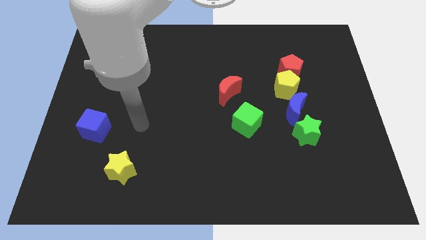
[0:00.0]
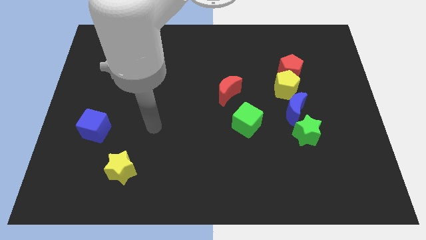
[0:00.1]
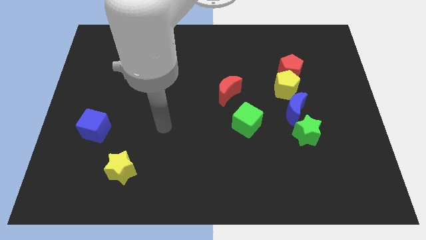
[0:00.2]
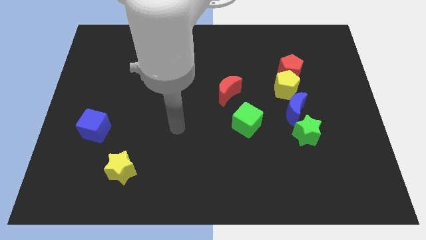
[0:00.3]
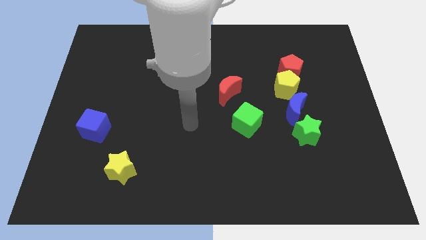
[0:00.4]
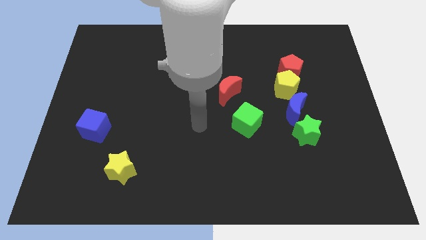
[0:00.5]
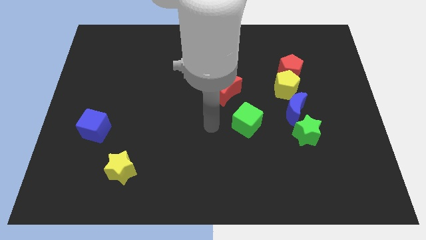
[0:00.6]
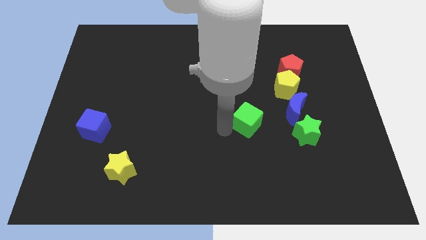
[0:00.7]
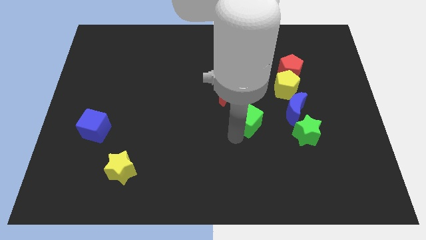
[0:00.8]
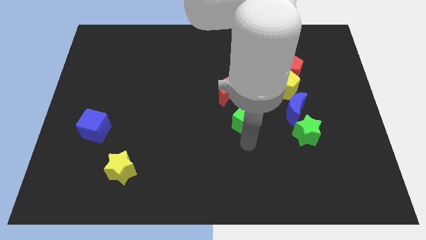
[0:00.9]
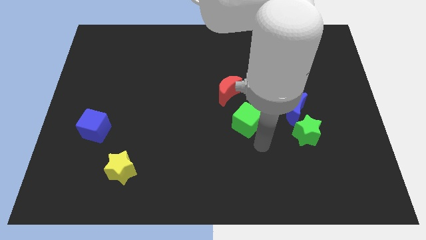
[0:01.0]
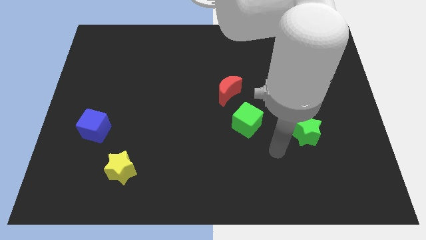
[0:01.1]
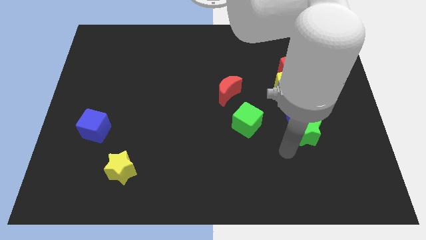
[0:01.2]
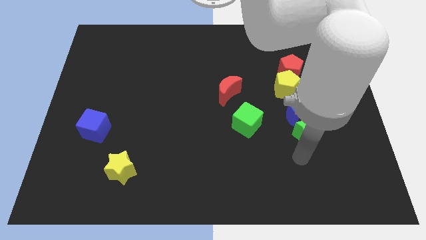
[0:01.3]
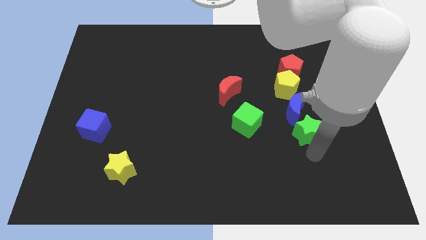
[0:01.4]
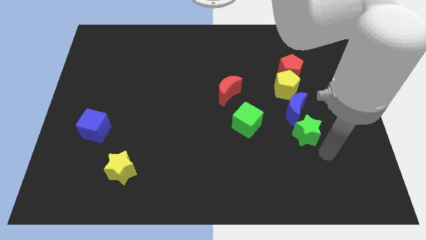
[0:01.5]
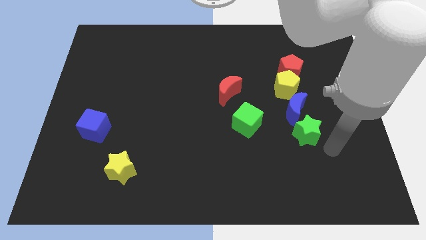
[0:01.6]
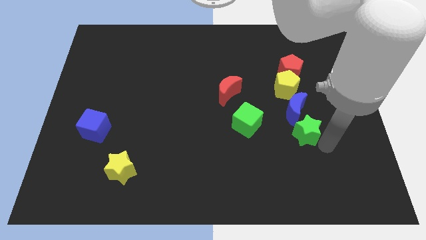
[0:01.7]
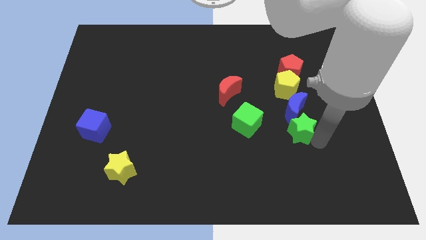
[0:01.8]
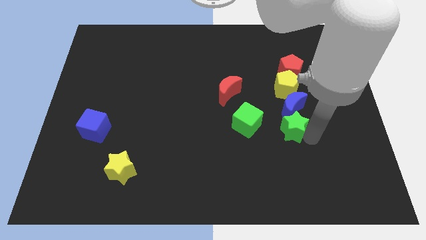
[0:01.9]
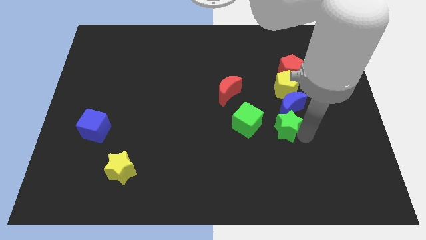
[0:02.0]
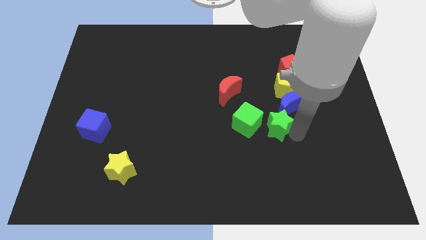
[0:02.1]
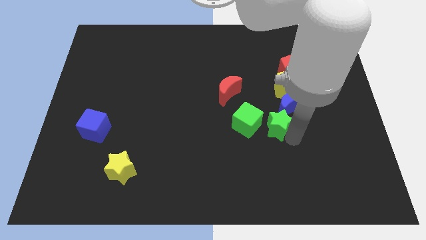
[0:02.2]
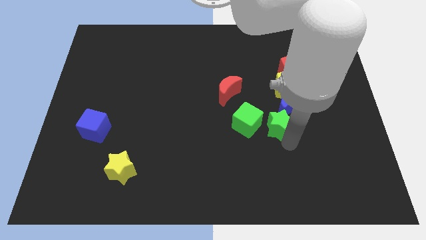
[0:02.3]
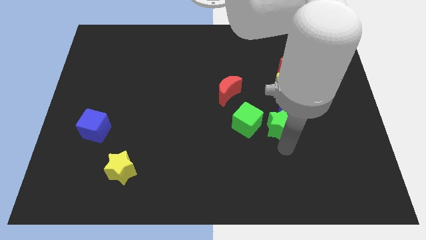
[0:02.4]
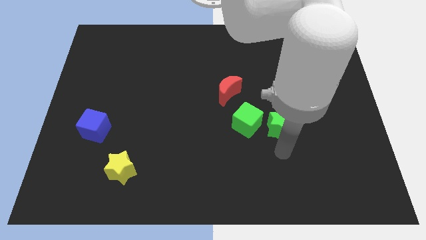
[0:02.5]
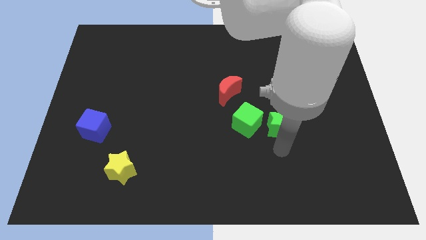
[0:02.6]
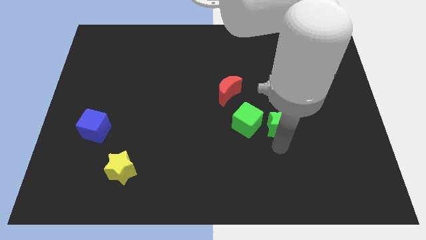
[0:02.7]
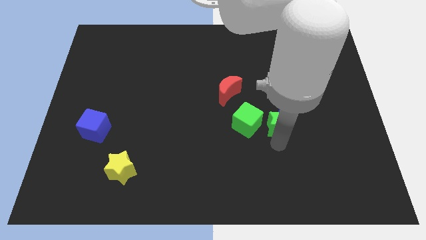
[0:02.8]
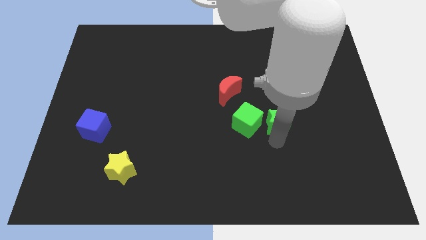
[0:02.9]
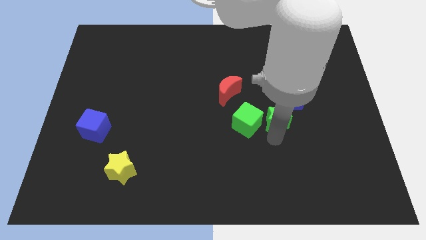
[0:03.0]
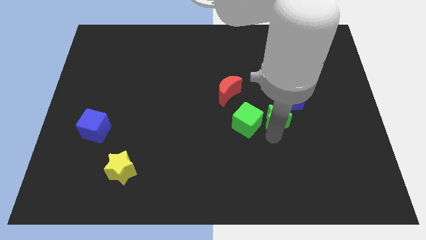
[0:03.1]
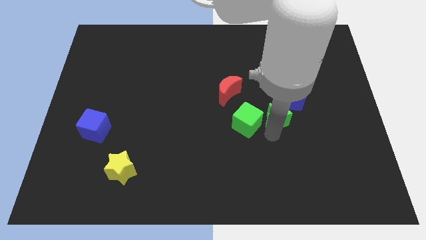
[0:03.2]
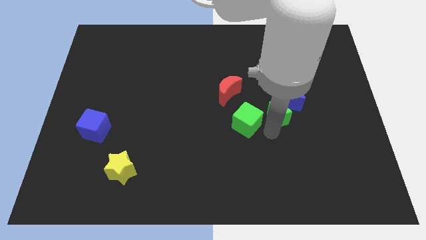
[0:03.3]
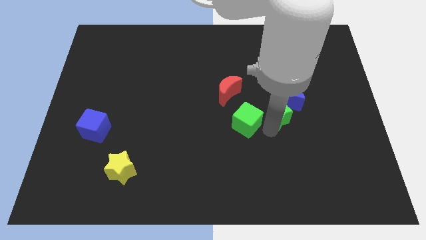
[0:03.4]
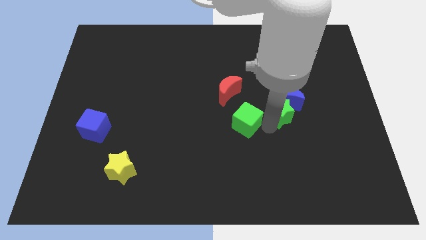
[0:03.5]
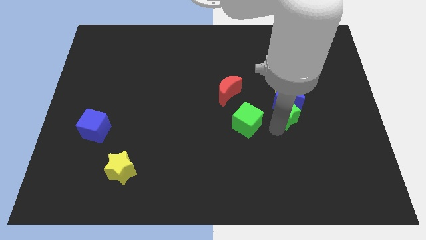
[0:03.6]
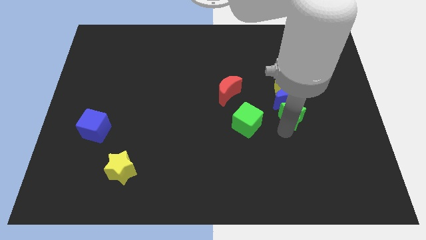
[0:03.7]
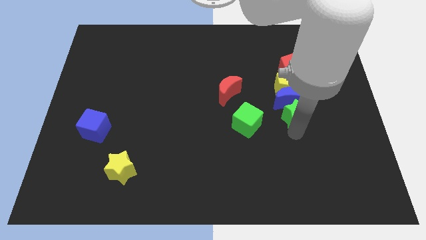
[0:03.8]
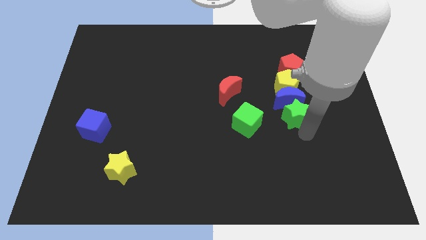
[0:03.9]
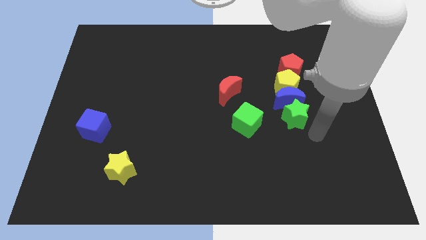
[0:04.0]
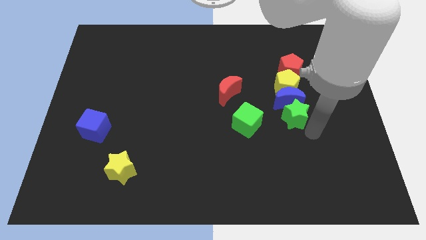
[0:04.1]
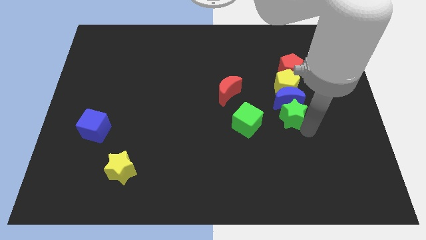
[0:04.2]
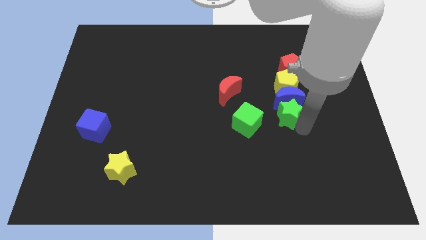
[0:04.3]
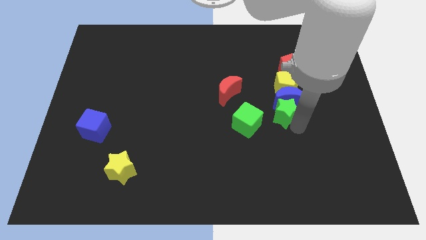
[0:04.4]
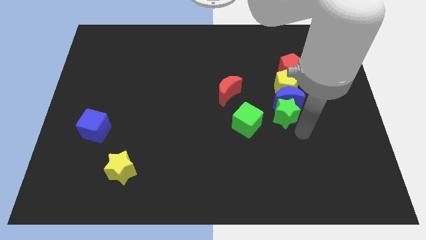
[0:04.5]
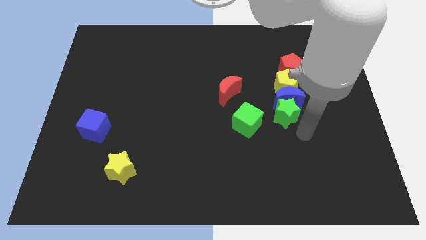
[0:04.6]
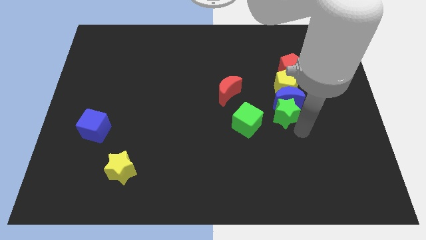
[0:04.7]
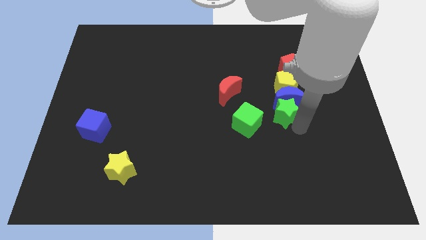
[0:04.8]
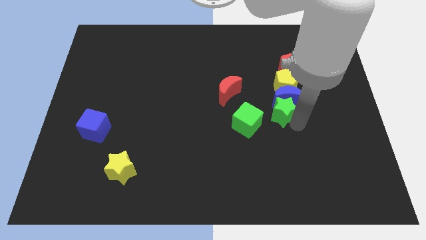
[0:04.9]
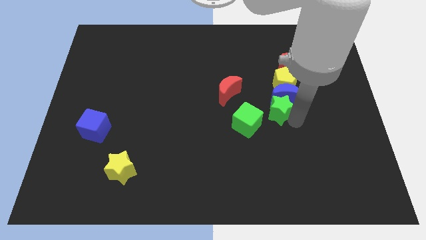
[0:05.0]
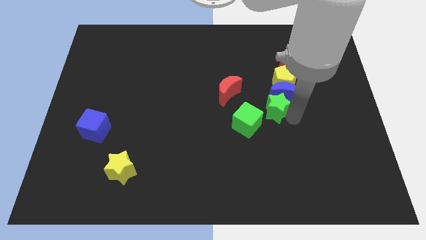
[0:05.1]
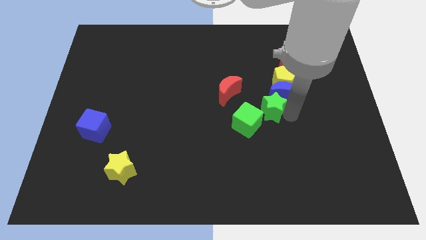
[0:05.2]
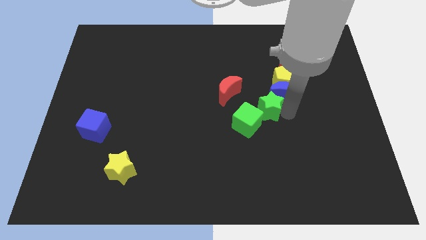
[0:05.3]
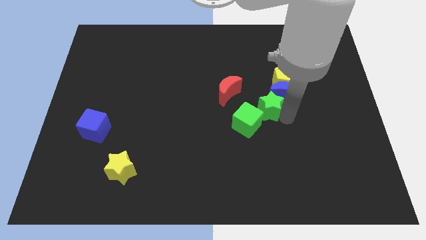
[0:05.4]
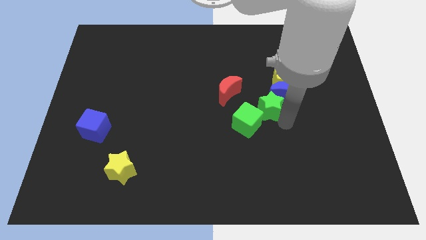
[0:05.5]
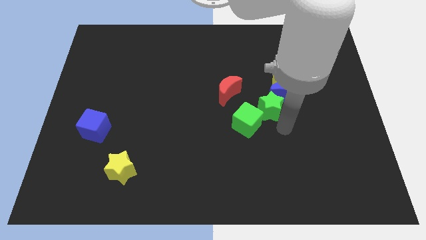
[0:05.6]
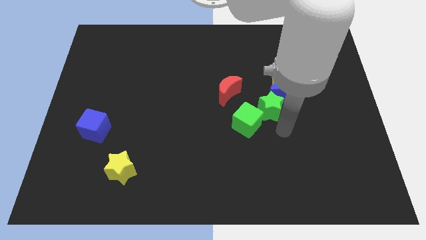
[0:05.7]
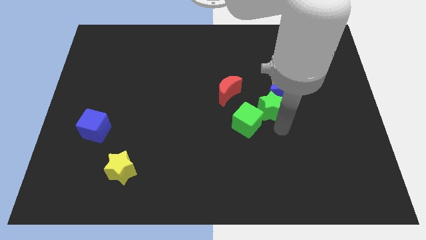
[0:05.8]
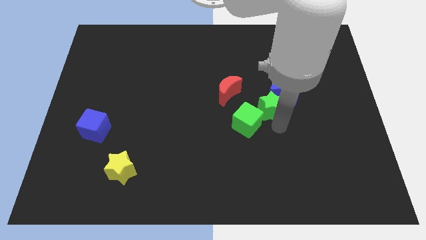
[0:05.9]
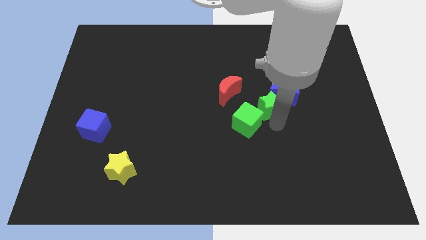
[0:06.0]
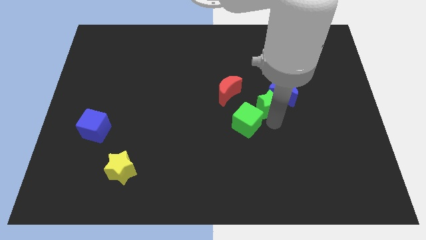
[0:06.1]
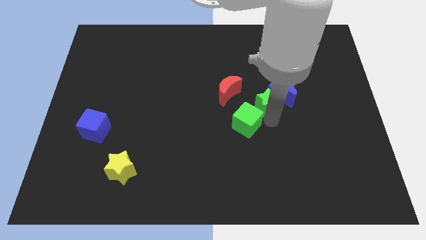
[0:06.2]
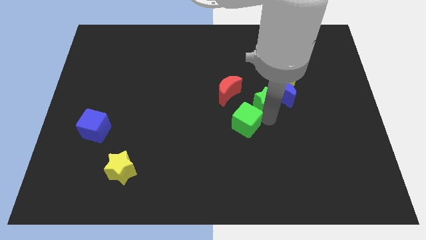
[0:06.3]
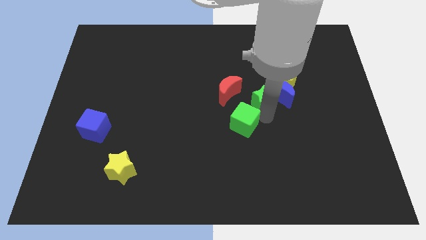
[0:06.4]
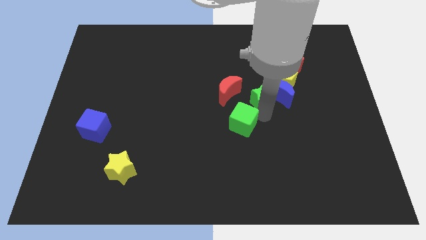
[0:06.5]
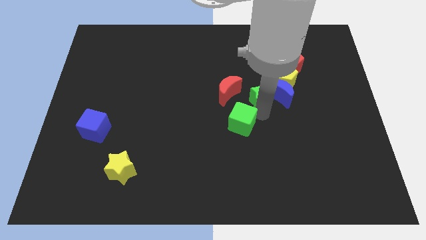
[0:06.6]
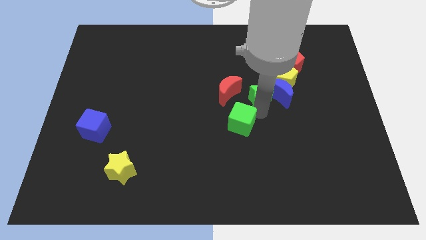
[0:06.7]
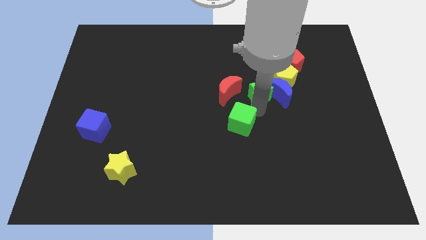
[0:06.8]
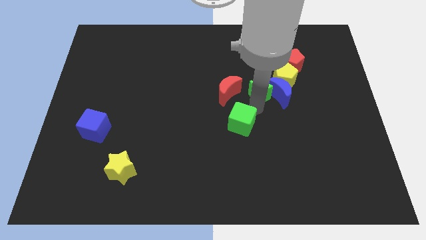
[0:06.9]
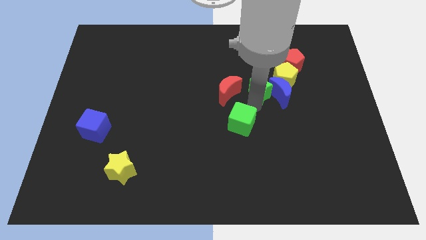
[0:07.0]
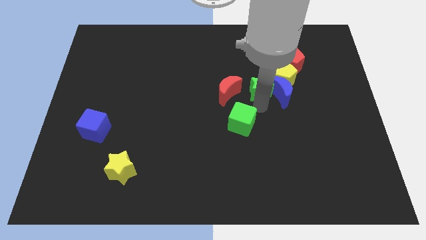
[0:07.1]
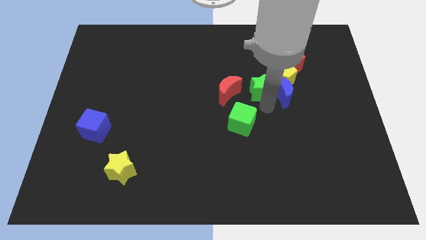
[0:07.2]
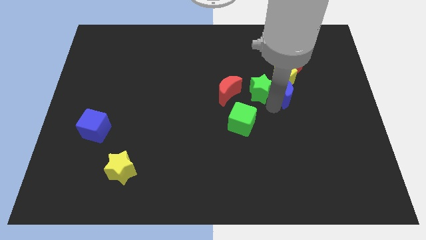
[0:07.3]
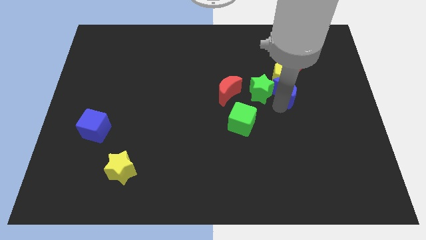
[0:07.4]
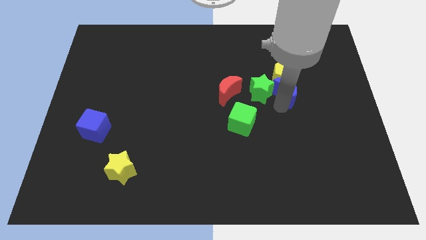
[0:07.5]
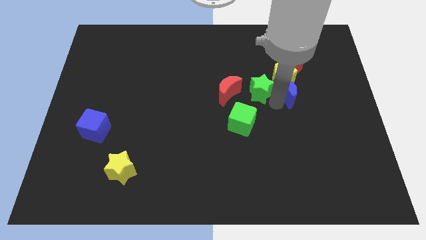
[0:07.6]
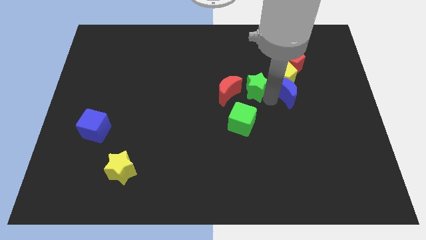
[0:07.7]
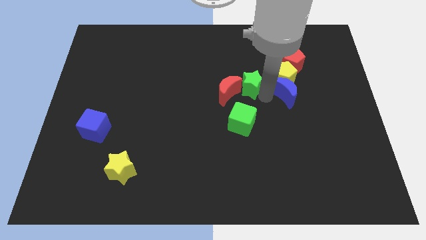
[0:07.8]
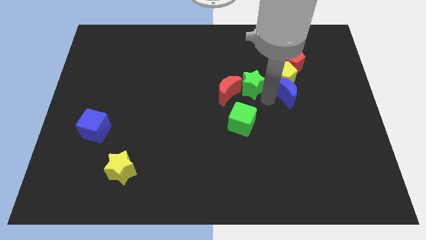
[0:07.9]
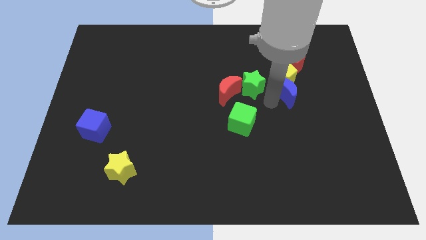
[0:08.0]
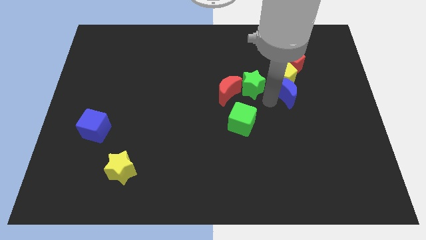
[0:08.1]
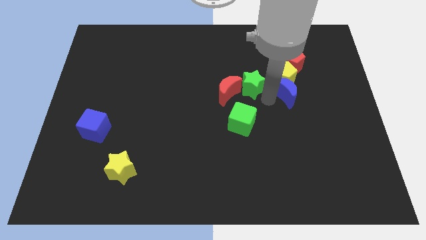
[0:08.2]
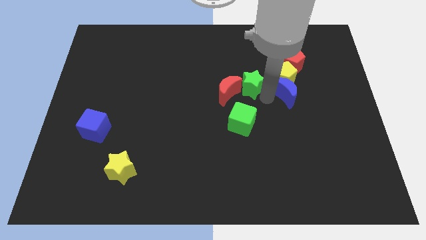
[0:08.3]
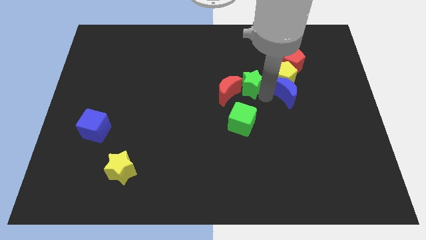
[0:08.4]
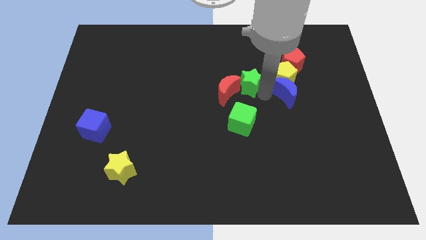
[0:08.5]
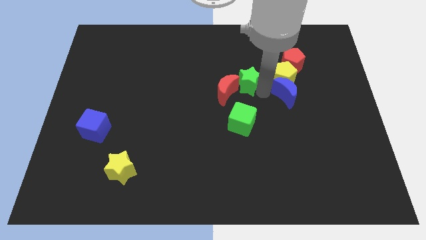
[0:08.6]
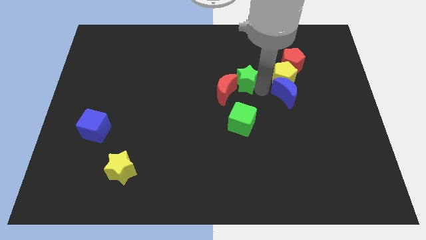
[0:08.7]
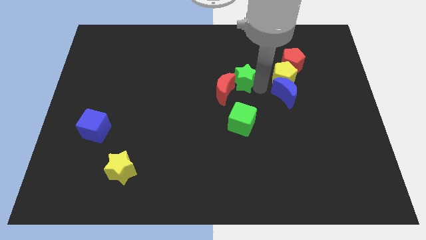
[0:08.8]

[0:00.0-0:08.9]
push the green star up and then left
